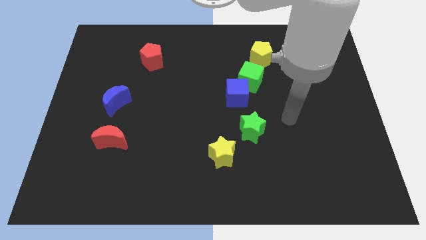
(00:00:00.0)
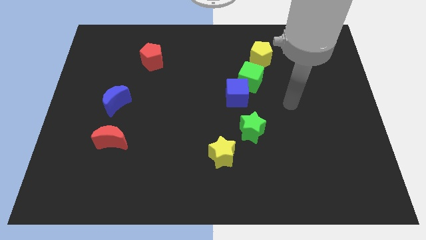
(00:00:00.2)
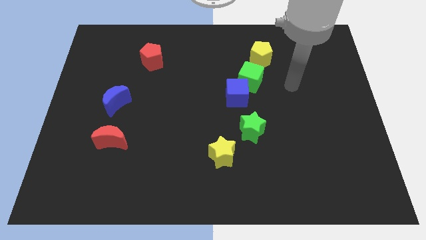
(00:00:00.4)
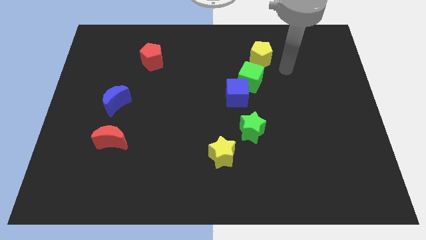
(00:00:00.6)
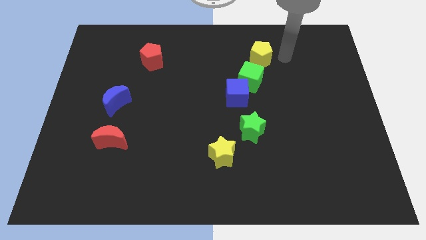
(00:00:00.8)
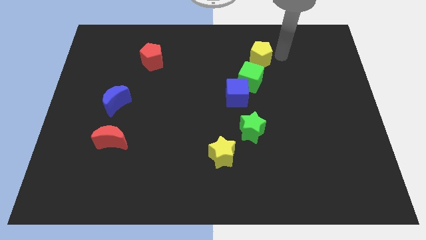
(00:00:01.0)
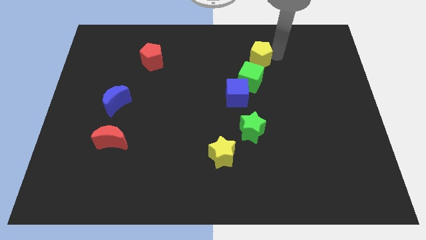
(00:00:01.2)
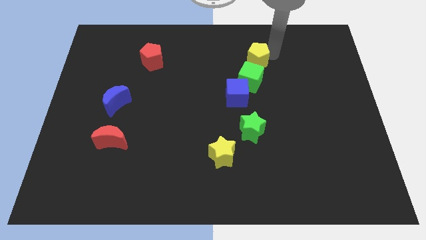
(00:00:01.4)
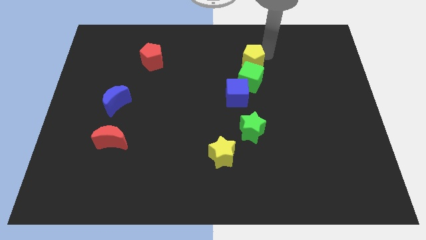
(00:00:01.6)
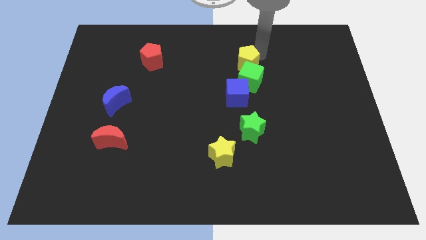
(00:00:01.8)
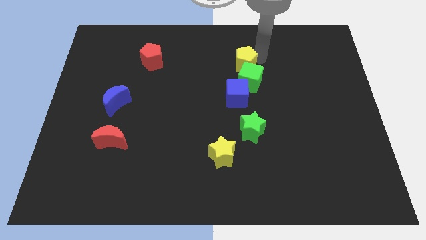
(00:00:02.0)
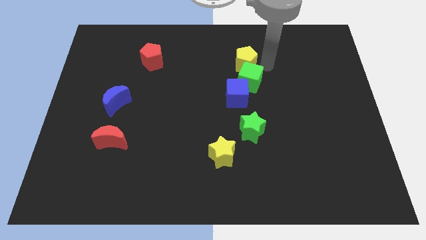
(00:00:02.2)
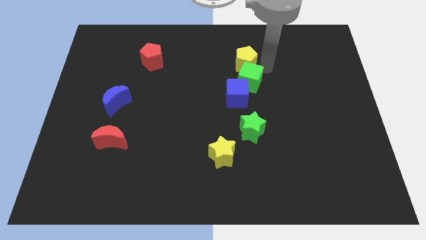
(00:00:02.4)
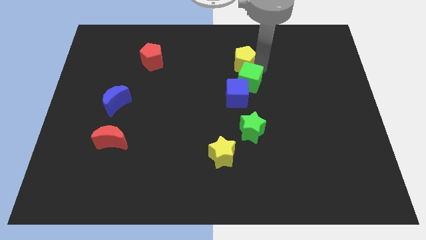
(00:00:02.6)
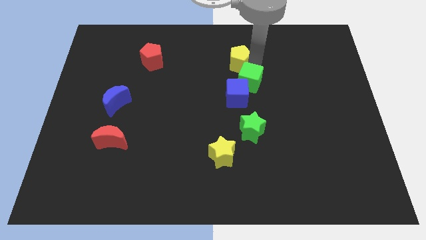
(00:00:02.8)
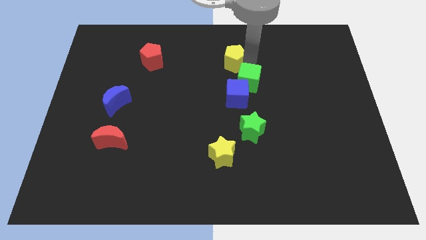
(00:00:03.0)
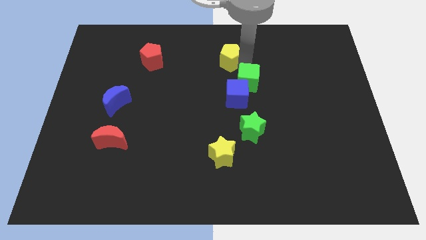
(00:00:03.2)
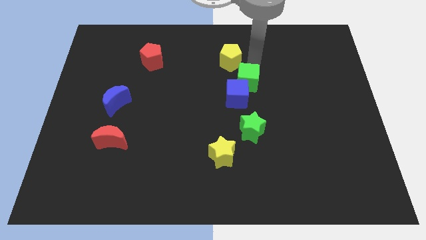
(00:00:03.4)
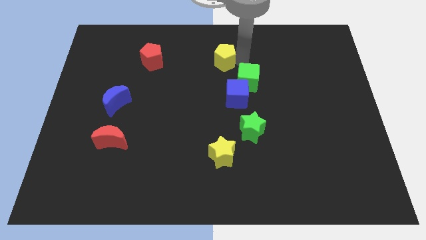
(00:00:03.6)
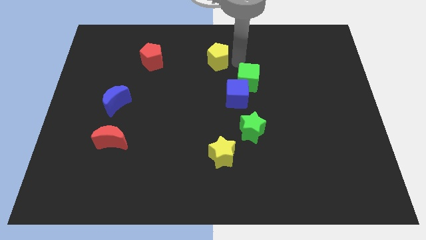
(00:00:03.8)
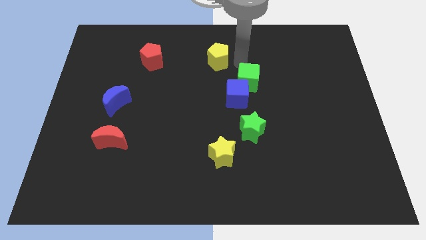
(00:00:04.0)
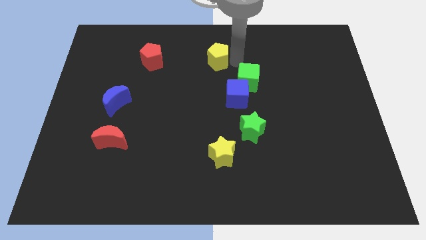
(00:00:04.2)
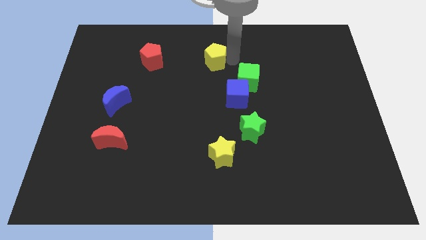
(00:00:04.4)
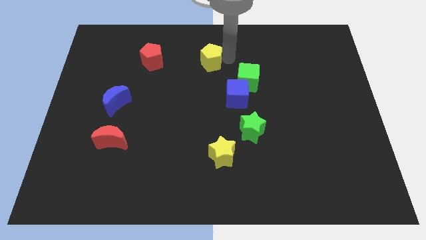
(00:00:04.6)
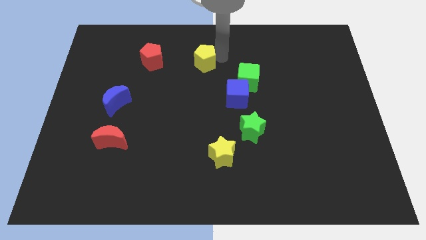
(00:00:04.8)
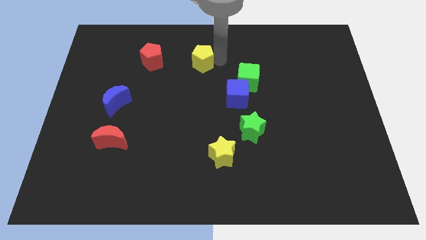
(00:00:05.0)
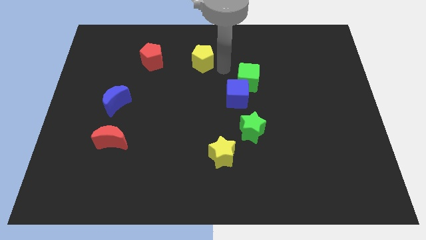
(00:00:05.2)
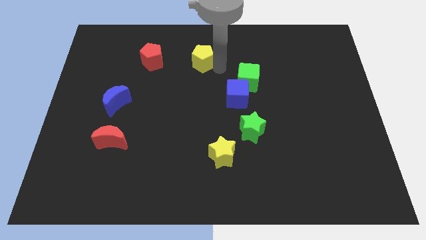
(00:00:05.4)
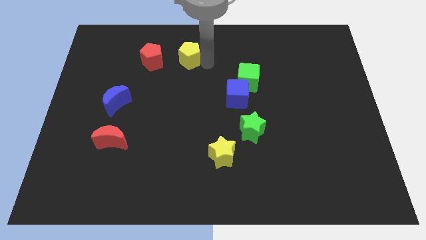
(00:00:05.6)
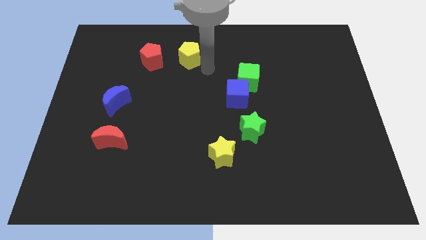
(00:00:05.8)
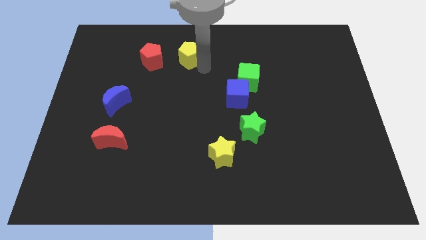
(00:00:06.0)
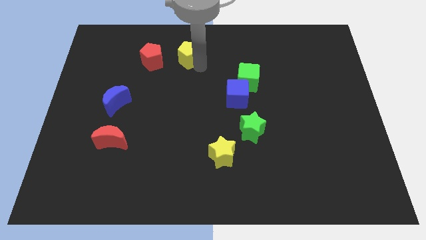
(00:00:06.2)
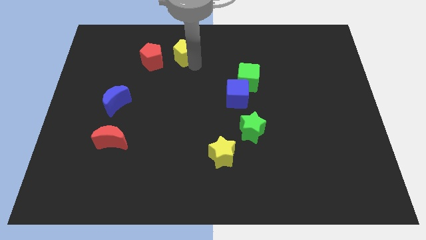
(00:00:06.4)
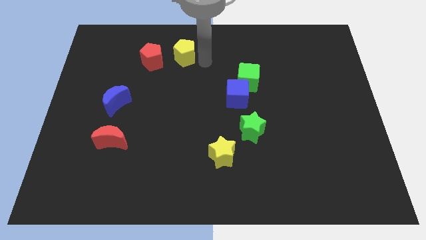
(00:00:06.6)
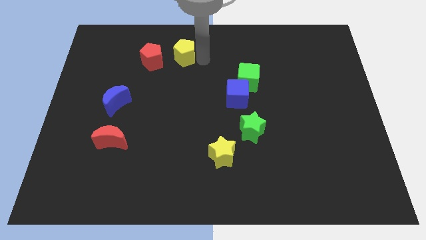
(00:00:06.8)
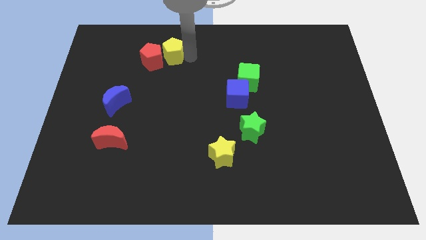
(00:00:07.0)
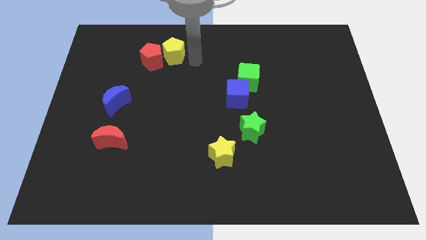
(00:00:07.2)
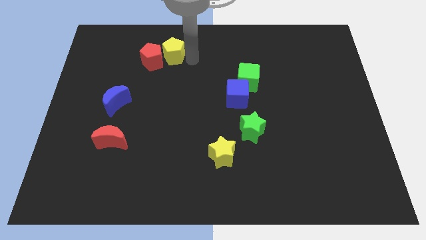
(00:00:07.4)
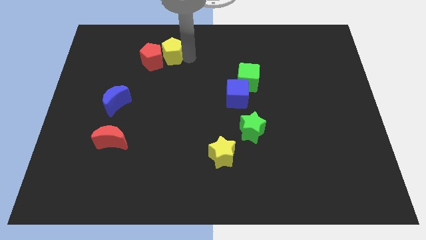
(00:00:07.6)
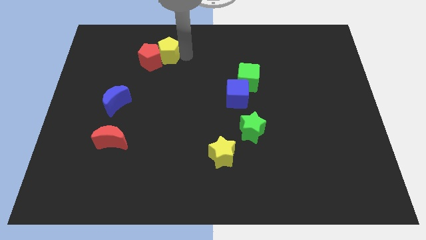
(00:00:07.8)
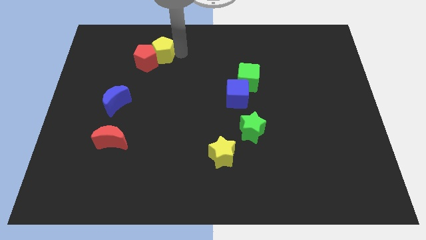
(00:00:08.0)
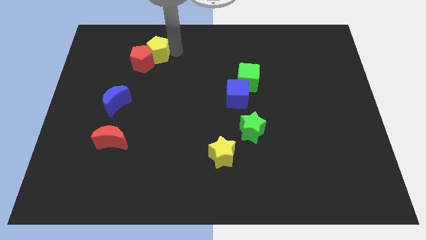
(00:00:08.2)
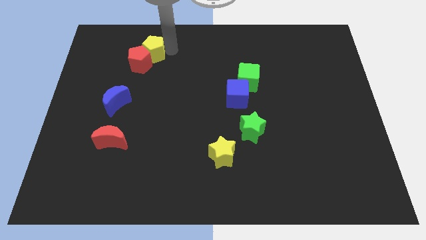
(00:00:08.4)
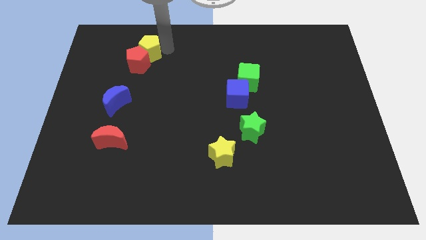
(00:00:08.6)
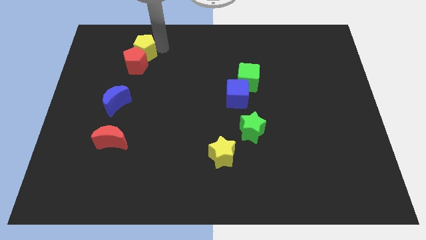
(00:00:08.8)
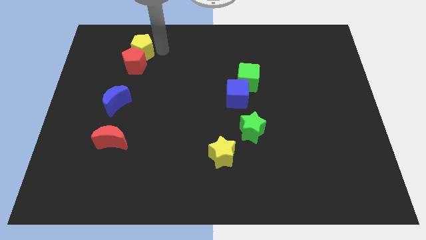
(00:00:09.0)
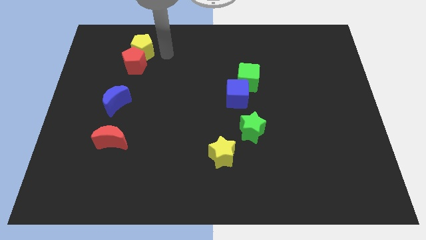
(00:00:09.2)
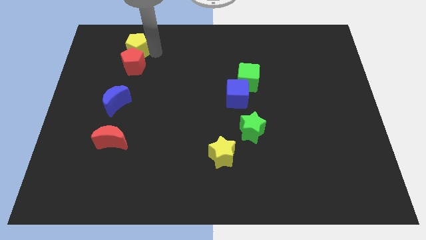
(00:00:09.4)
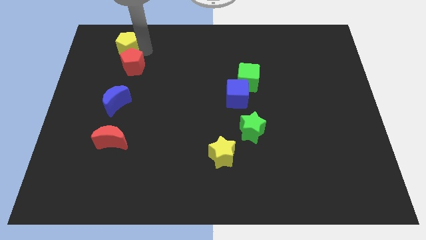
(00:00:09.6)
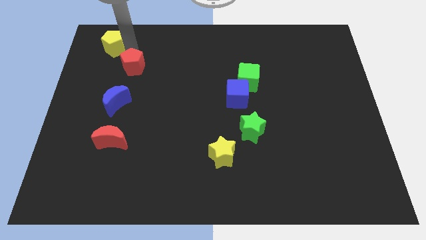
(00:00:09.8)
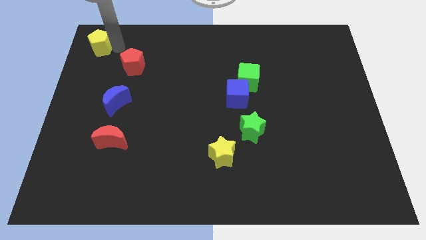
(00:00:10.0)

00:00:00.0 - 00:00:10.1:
push the yellow pentagon to the upper left corner
